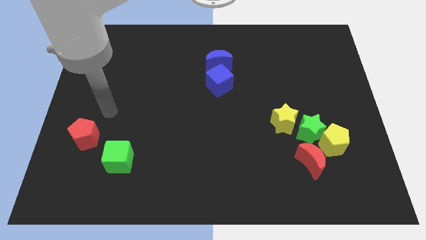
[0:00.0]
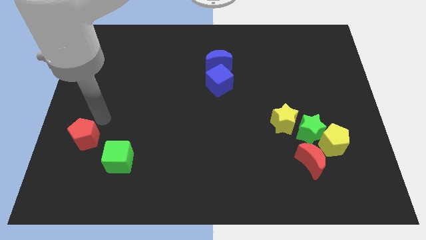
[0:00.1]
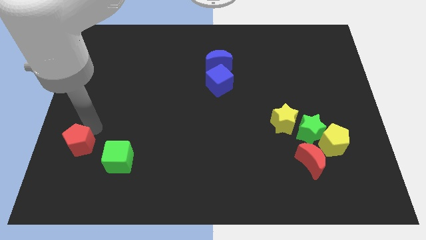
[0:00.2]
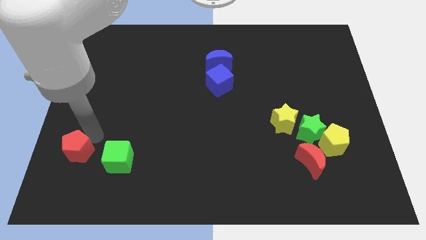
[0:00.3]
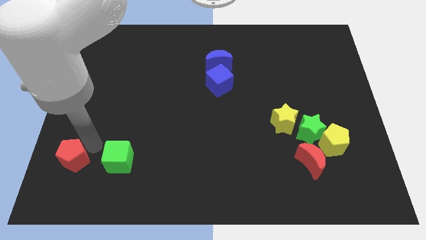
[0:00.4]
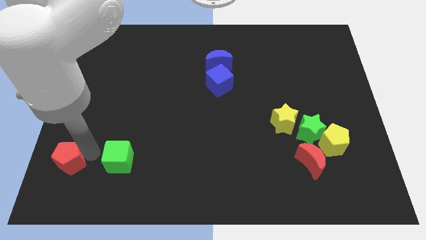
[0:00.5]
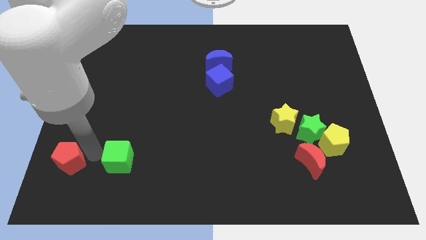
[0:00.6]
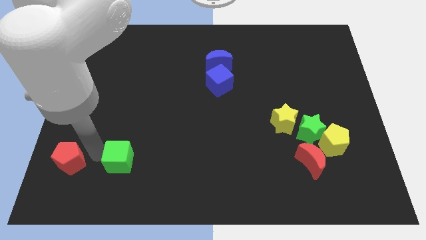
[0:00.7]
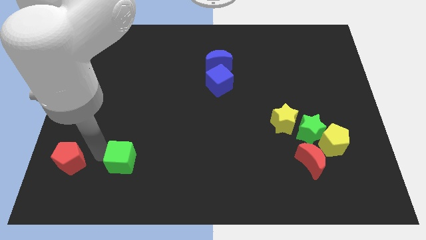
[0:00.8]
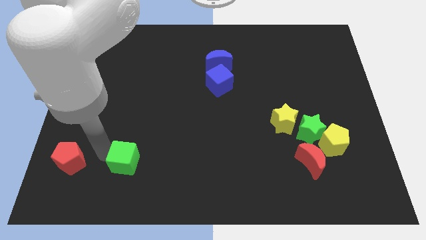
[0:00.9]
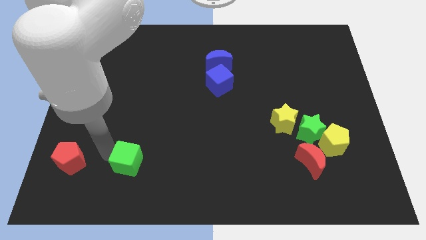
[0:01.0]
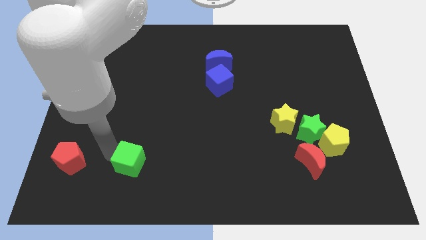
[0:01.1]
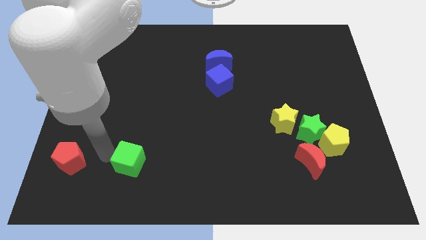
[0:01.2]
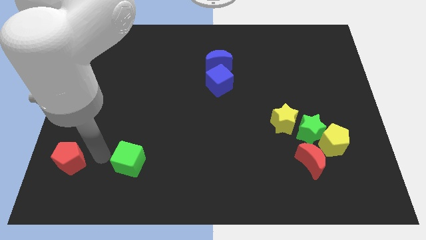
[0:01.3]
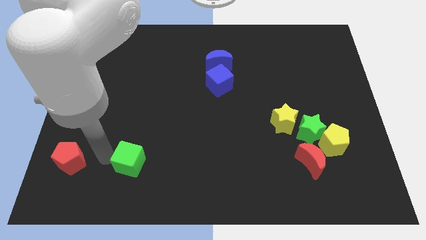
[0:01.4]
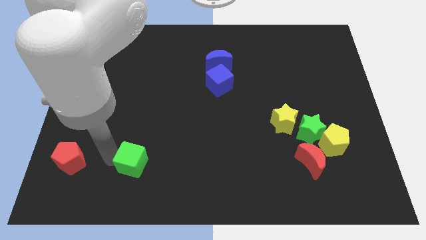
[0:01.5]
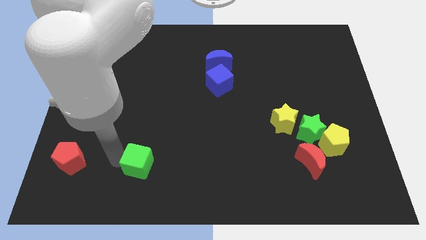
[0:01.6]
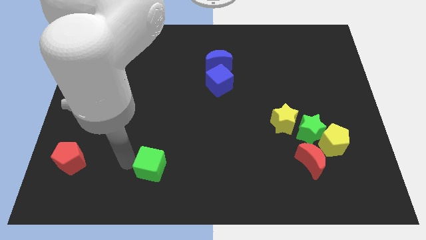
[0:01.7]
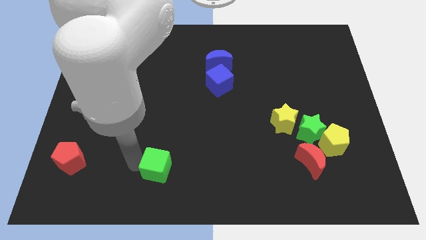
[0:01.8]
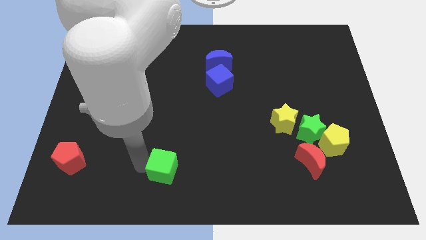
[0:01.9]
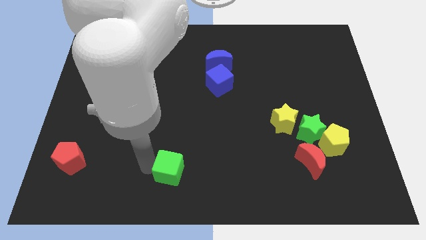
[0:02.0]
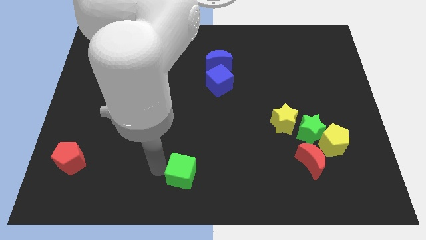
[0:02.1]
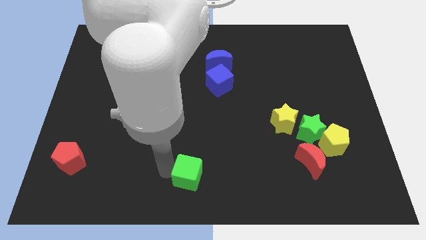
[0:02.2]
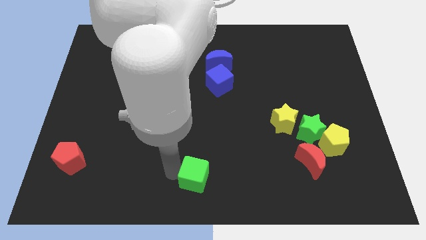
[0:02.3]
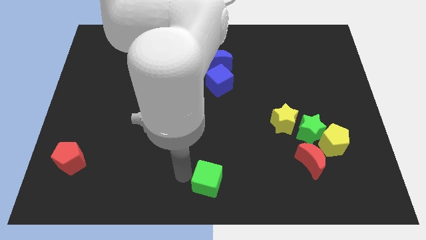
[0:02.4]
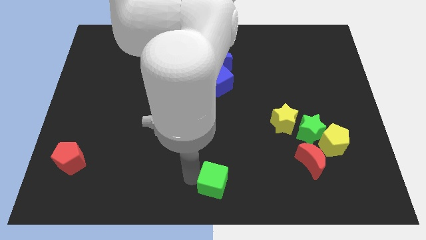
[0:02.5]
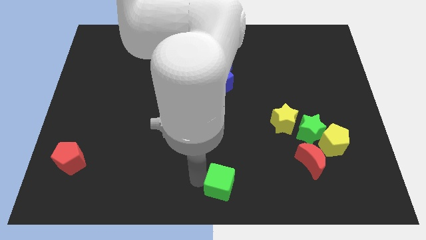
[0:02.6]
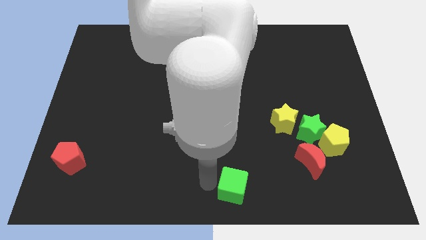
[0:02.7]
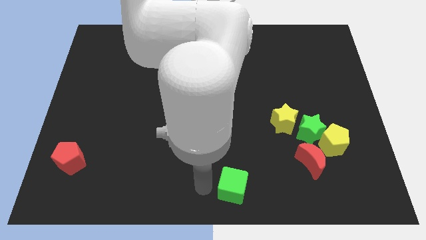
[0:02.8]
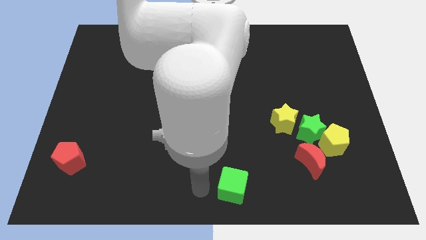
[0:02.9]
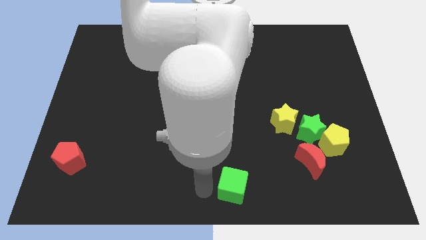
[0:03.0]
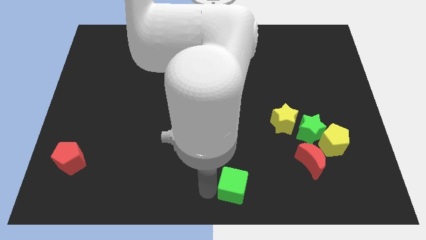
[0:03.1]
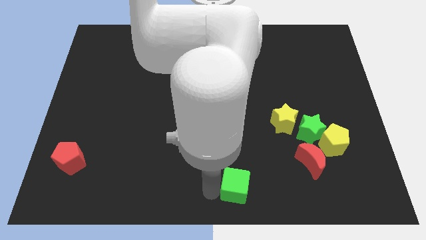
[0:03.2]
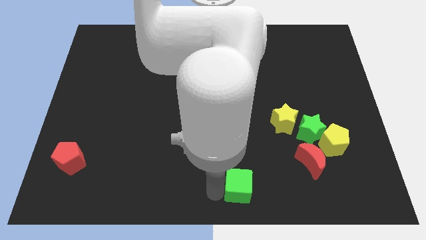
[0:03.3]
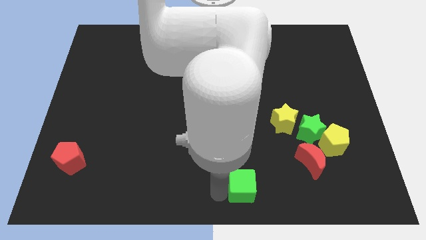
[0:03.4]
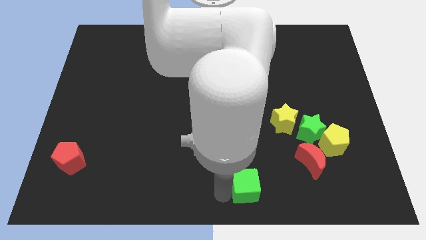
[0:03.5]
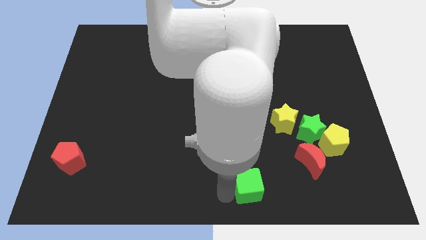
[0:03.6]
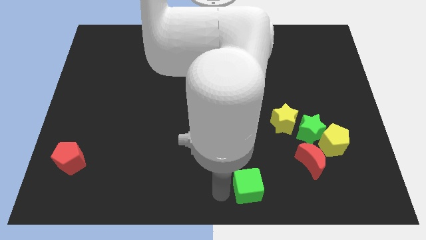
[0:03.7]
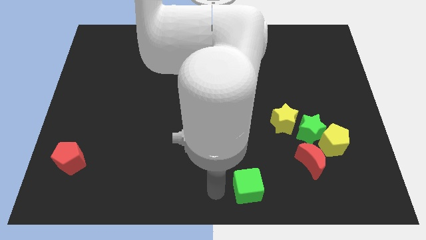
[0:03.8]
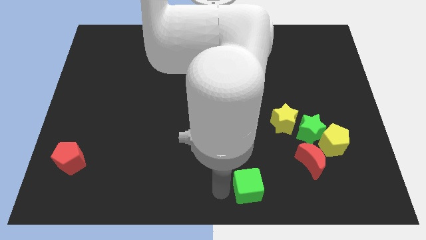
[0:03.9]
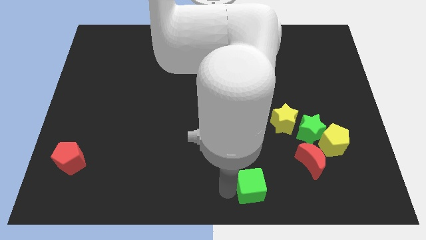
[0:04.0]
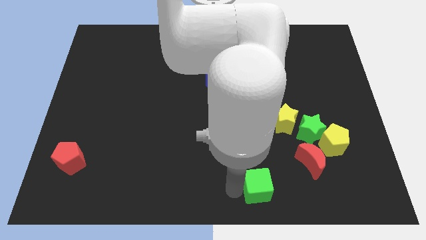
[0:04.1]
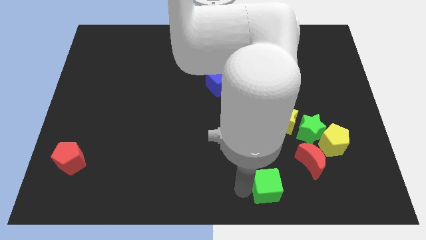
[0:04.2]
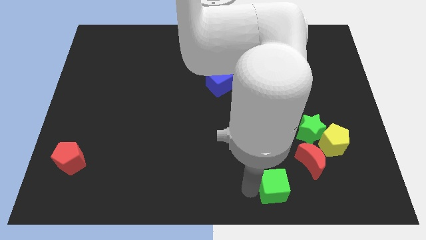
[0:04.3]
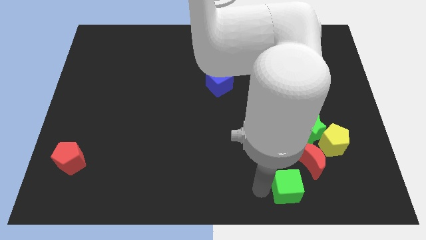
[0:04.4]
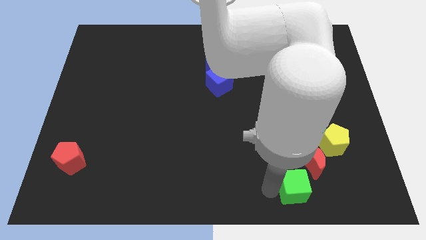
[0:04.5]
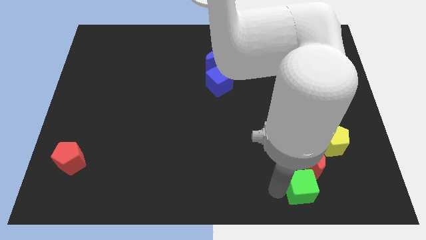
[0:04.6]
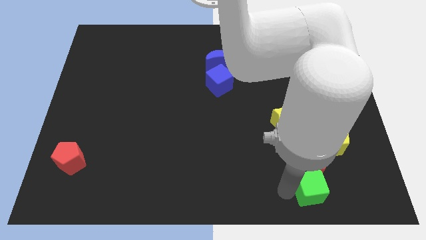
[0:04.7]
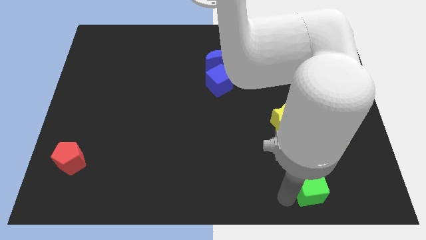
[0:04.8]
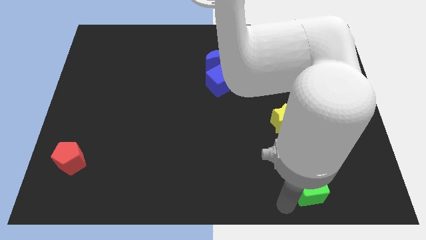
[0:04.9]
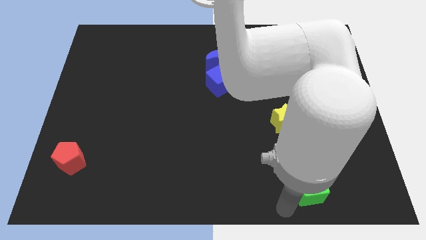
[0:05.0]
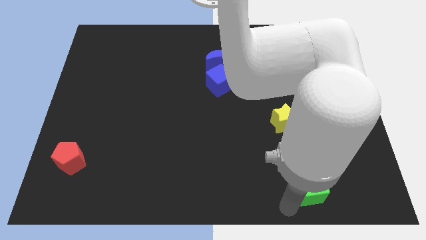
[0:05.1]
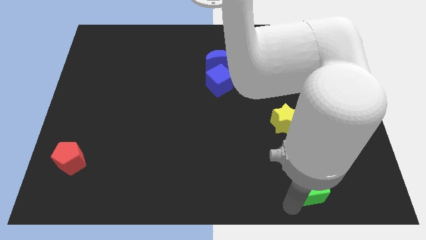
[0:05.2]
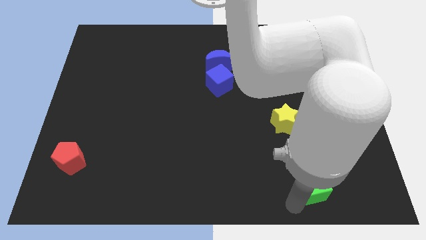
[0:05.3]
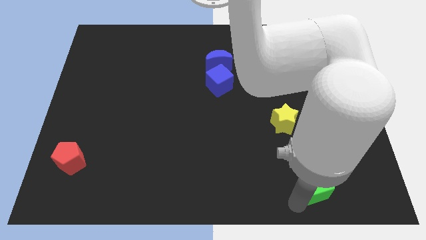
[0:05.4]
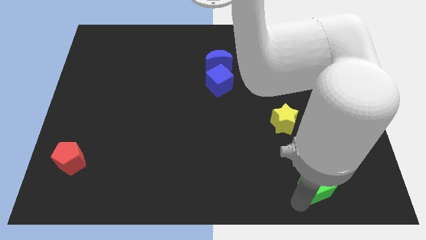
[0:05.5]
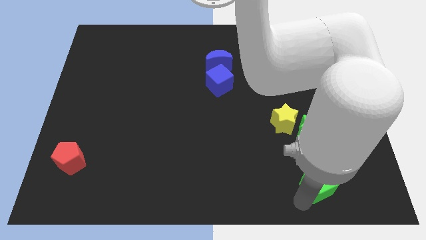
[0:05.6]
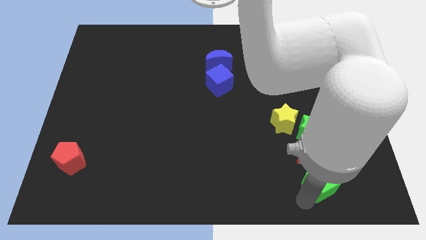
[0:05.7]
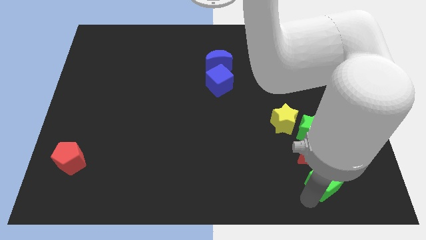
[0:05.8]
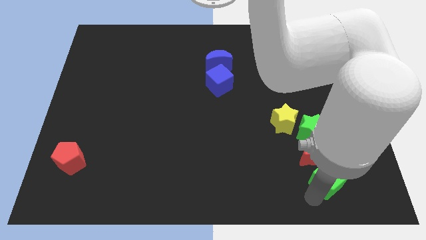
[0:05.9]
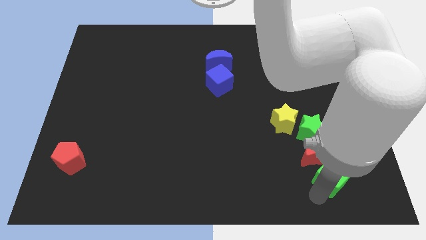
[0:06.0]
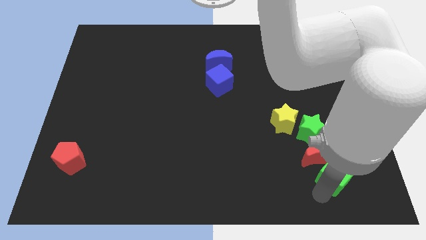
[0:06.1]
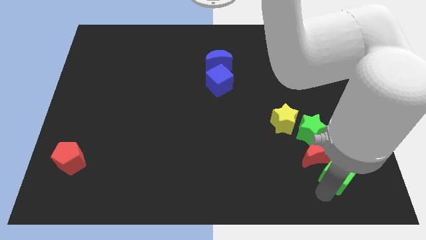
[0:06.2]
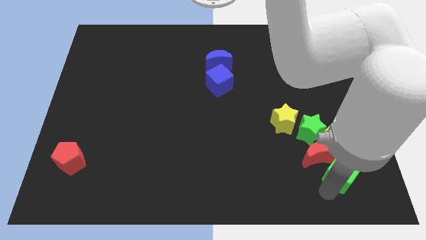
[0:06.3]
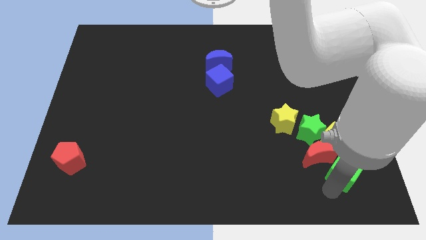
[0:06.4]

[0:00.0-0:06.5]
move the green cube to the bottom right of the green star

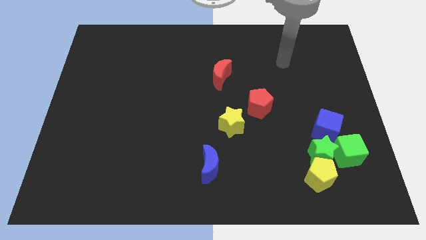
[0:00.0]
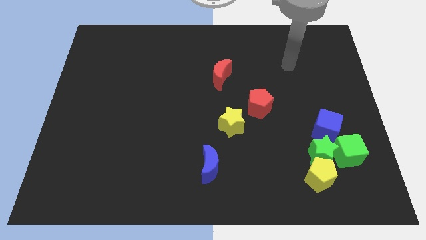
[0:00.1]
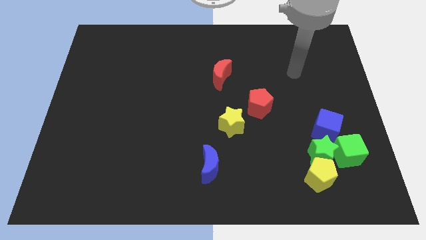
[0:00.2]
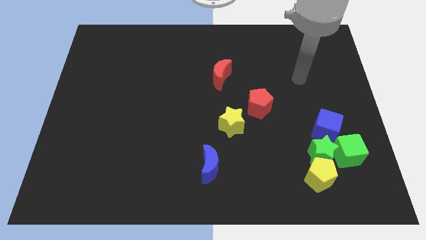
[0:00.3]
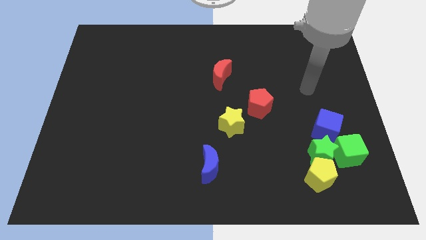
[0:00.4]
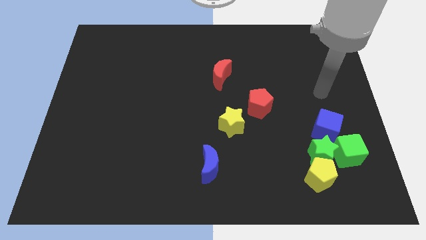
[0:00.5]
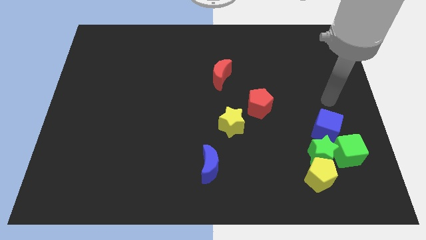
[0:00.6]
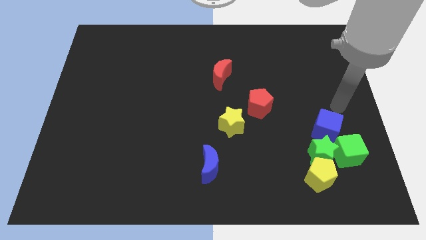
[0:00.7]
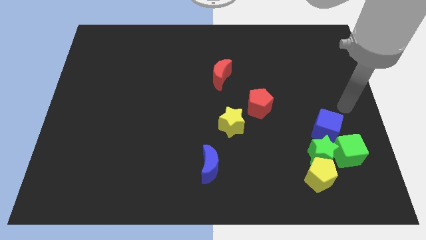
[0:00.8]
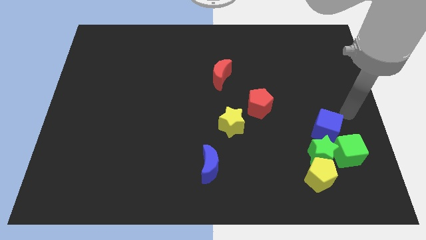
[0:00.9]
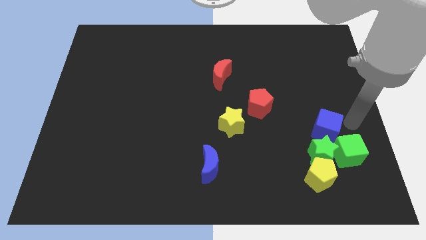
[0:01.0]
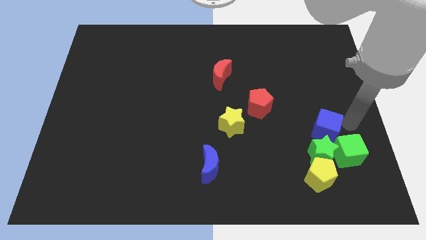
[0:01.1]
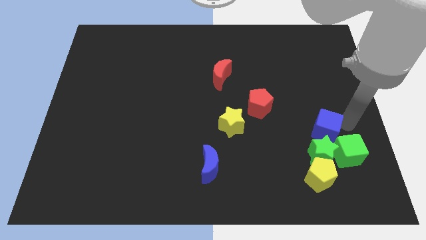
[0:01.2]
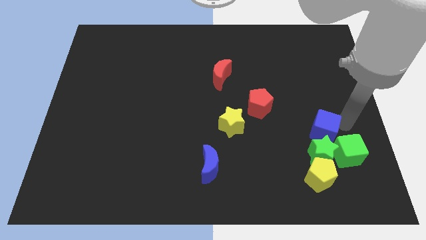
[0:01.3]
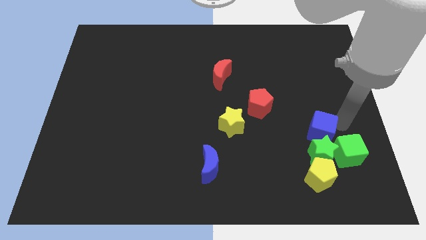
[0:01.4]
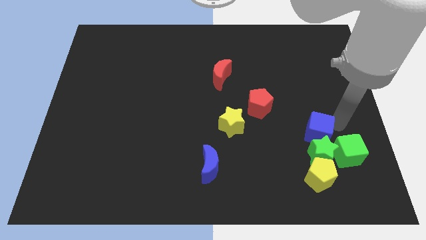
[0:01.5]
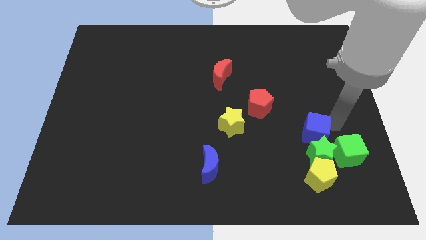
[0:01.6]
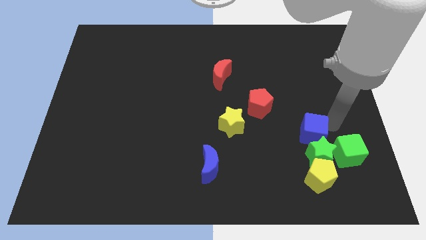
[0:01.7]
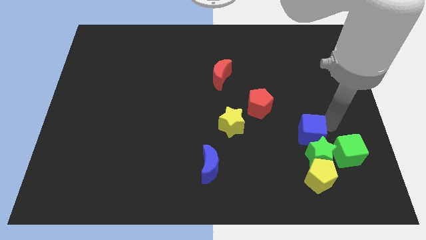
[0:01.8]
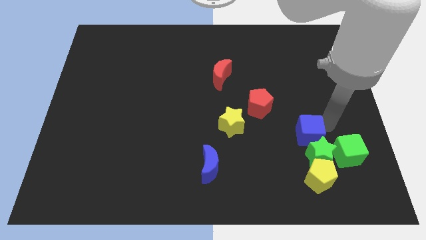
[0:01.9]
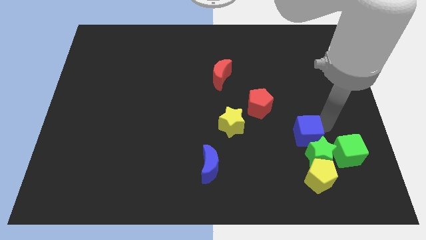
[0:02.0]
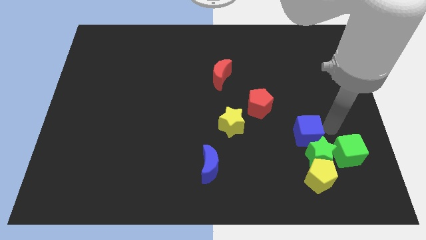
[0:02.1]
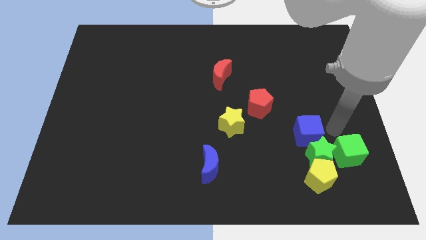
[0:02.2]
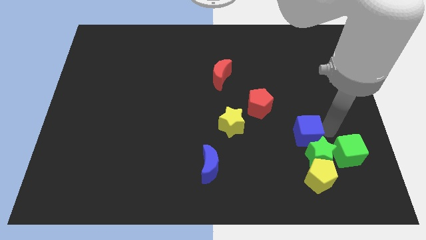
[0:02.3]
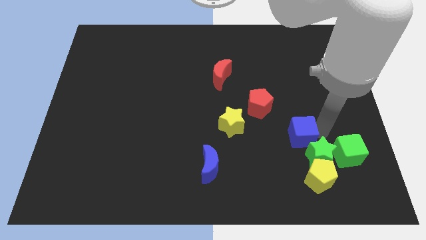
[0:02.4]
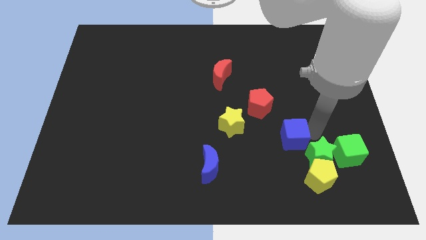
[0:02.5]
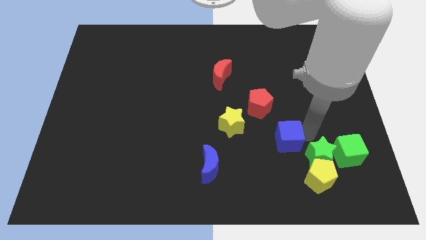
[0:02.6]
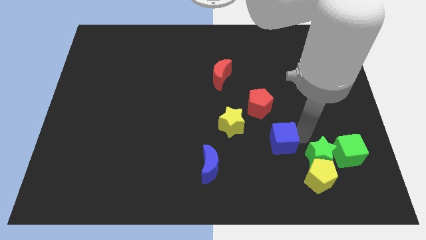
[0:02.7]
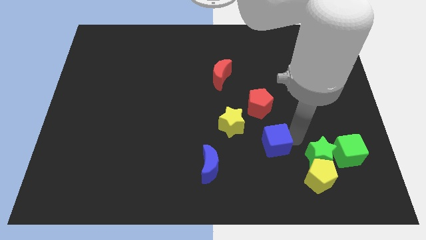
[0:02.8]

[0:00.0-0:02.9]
slide the blue cube diagonally down and to the right of the yellow star
